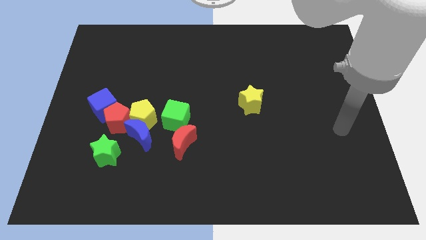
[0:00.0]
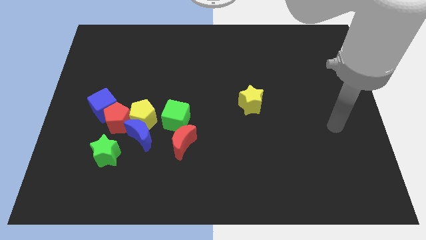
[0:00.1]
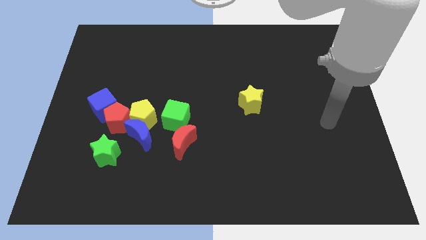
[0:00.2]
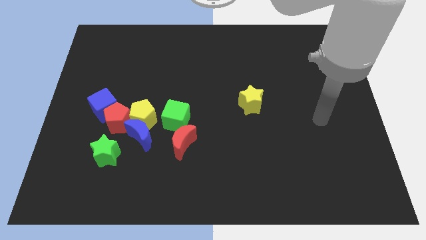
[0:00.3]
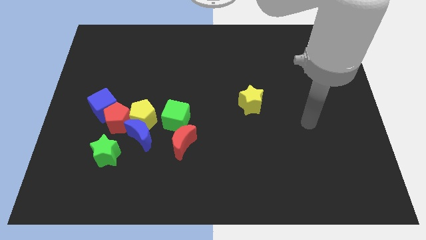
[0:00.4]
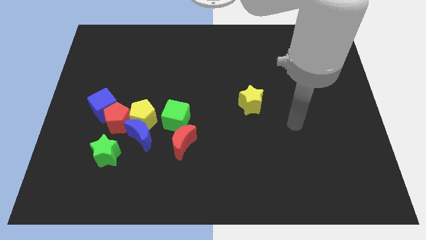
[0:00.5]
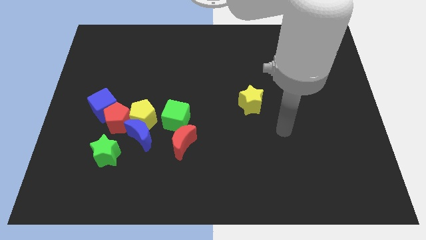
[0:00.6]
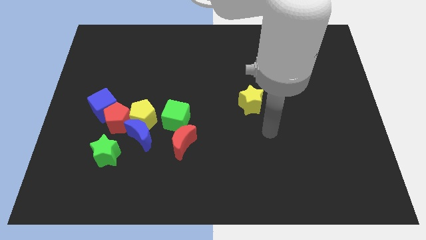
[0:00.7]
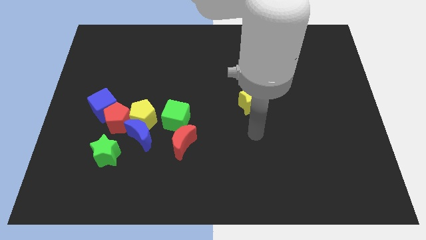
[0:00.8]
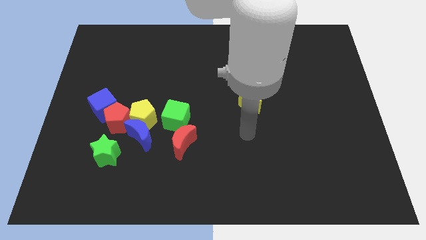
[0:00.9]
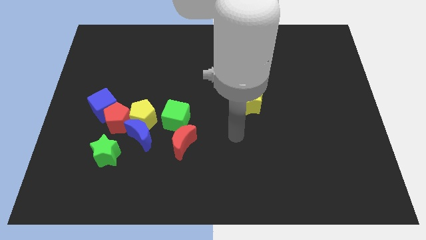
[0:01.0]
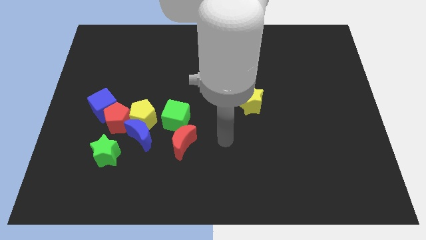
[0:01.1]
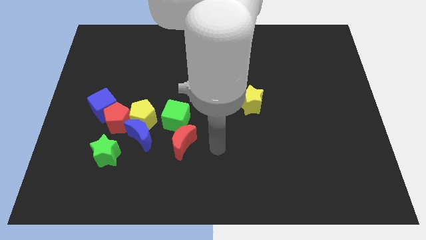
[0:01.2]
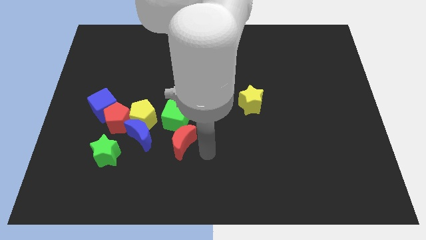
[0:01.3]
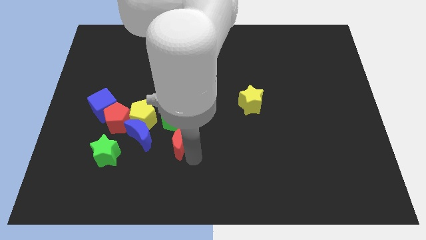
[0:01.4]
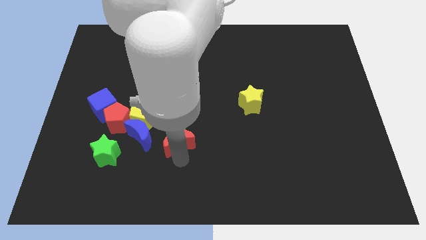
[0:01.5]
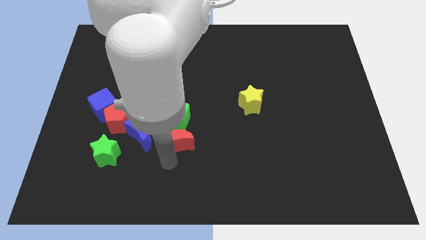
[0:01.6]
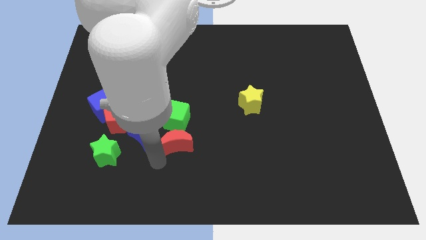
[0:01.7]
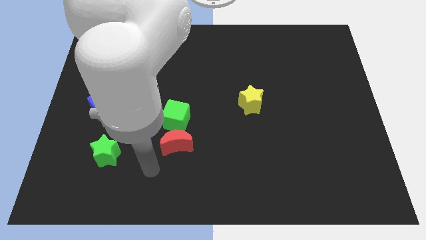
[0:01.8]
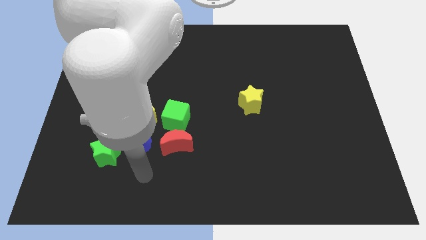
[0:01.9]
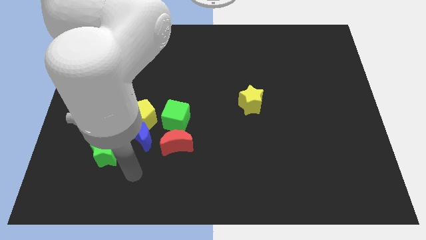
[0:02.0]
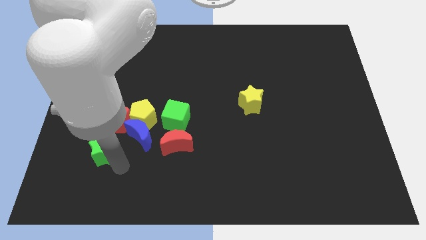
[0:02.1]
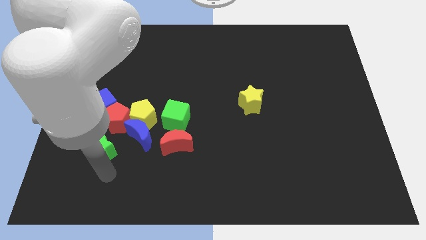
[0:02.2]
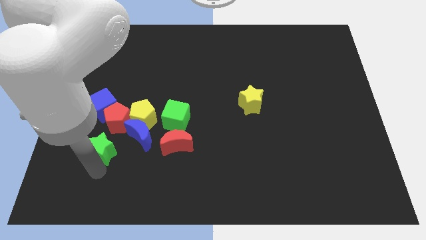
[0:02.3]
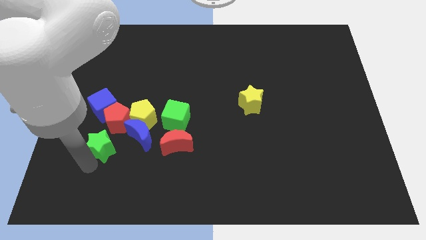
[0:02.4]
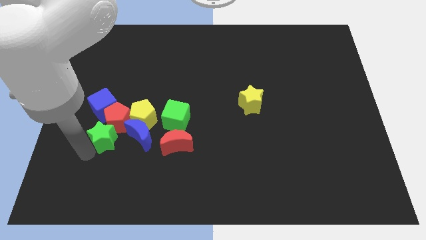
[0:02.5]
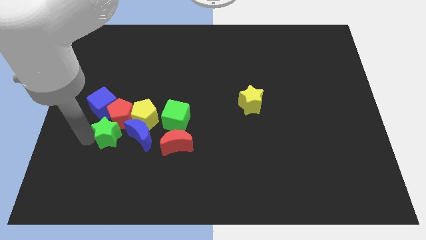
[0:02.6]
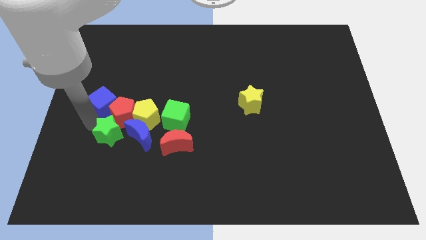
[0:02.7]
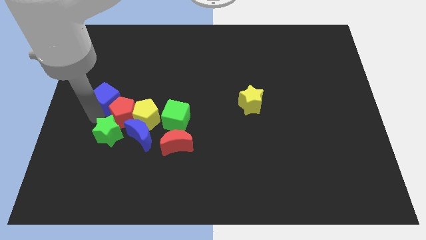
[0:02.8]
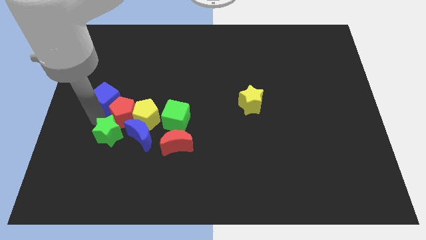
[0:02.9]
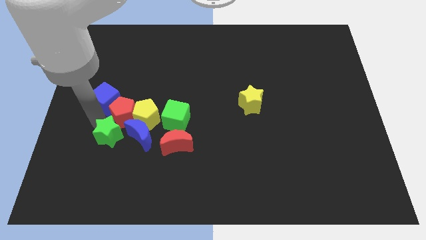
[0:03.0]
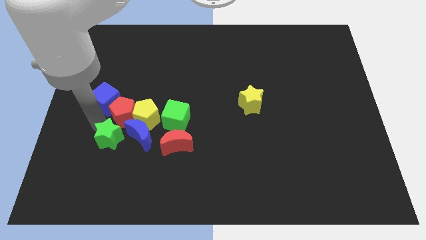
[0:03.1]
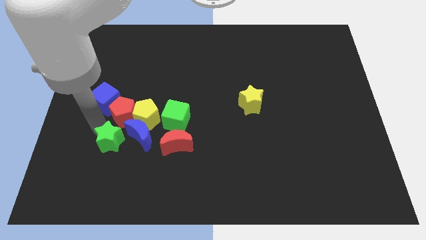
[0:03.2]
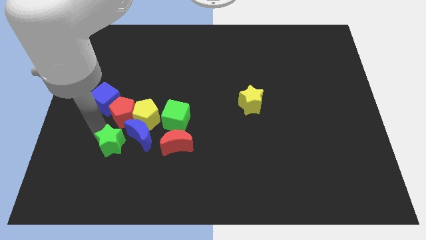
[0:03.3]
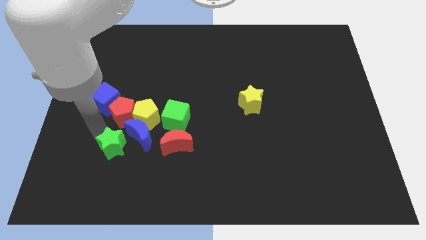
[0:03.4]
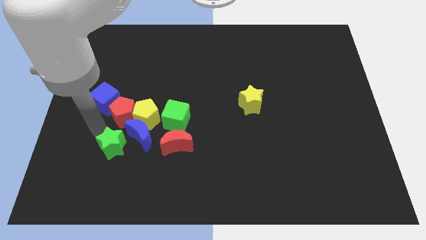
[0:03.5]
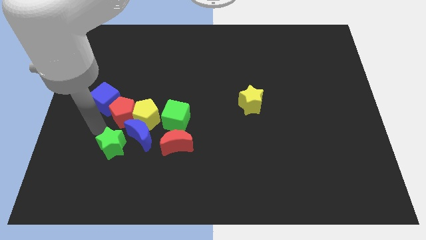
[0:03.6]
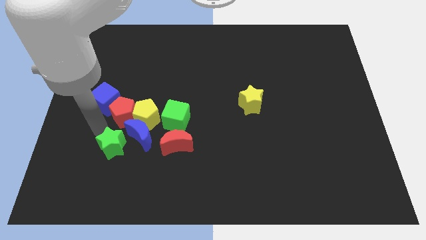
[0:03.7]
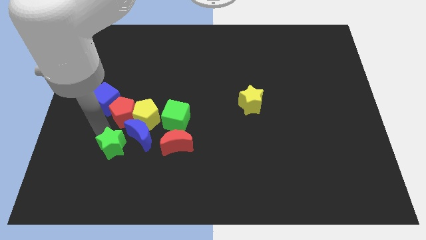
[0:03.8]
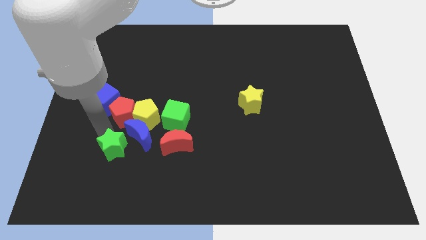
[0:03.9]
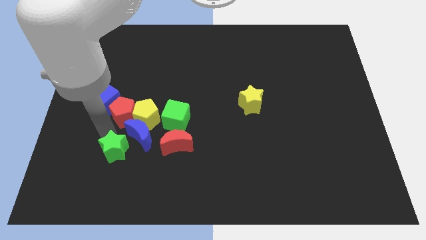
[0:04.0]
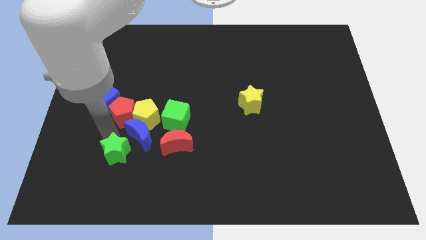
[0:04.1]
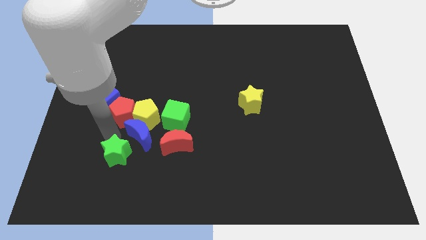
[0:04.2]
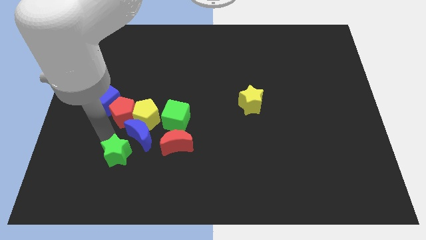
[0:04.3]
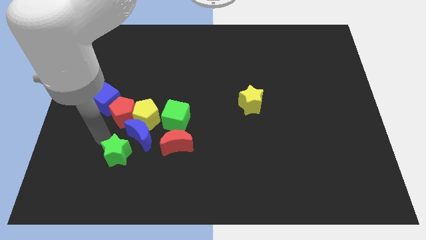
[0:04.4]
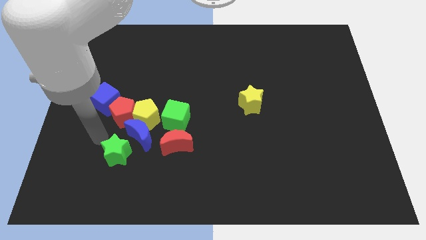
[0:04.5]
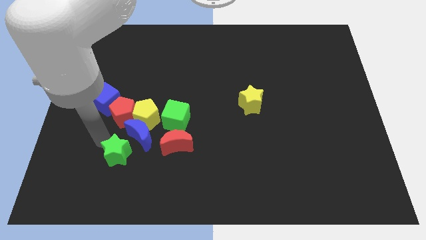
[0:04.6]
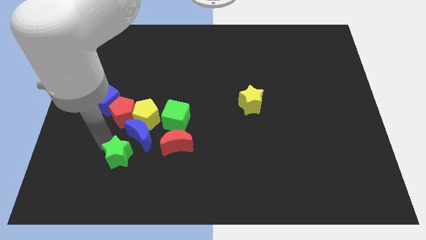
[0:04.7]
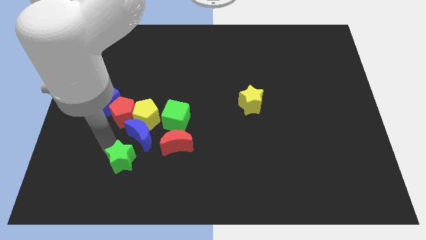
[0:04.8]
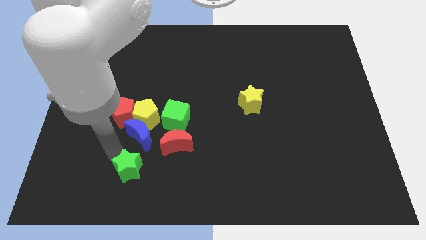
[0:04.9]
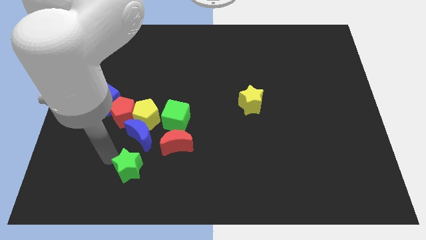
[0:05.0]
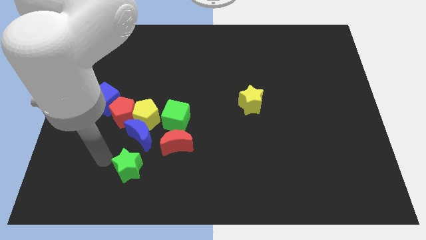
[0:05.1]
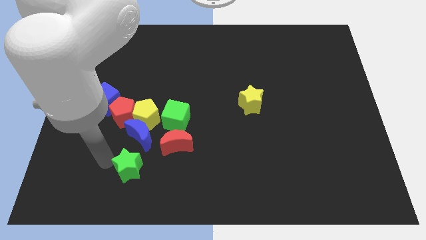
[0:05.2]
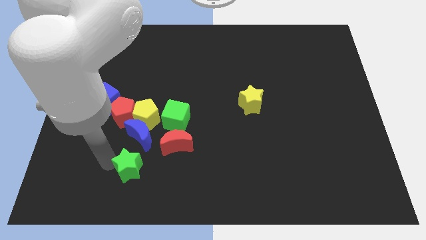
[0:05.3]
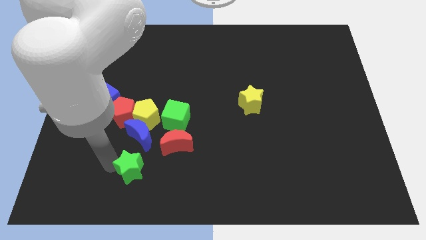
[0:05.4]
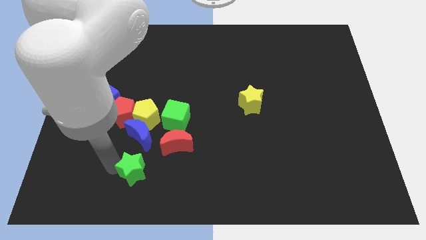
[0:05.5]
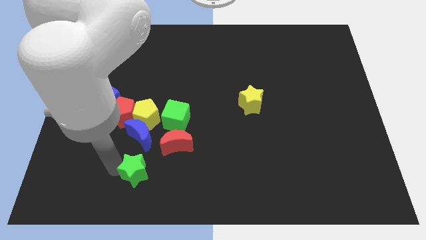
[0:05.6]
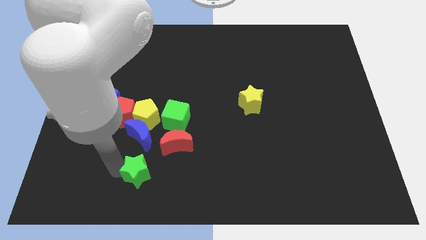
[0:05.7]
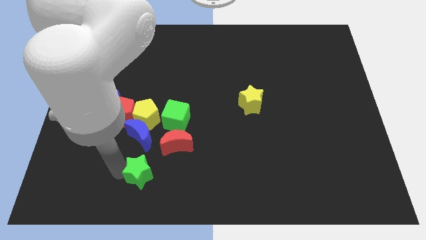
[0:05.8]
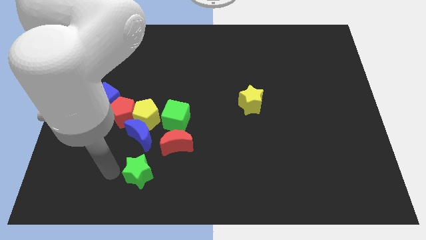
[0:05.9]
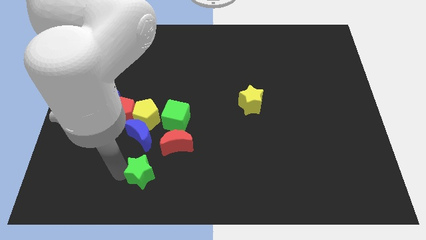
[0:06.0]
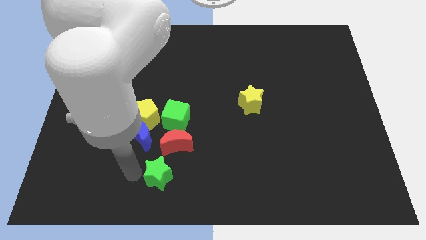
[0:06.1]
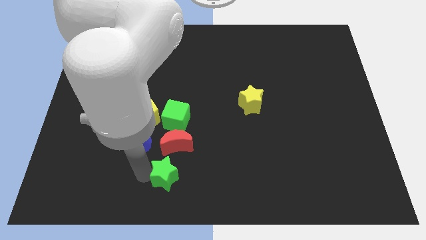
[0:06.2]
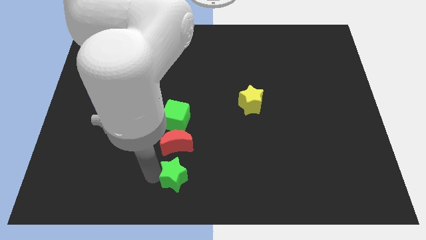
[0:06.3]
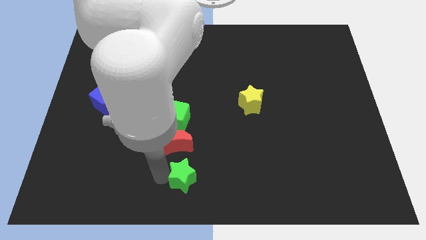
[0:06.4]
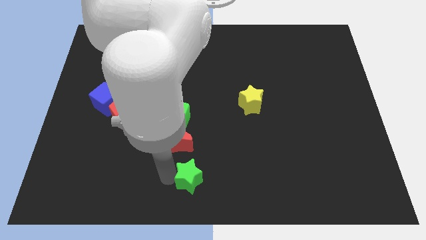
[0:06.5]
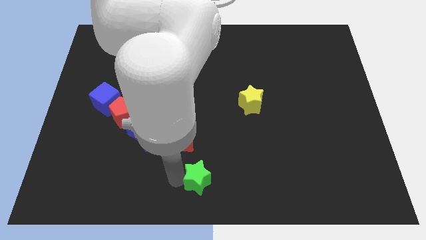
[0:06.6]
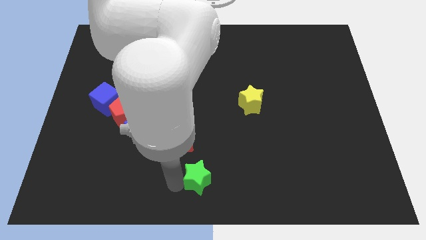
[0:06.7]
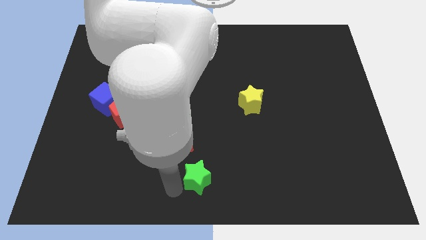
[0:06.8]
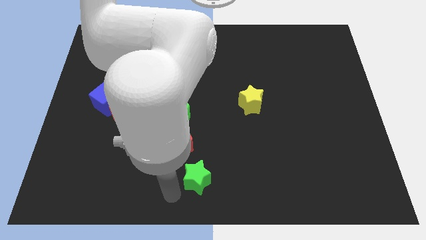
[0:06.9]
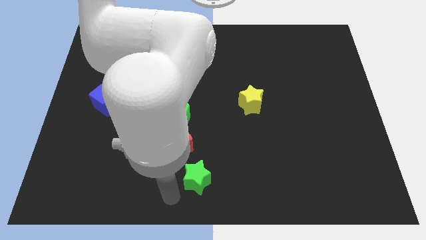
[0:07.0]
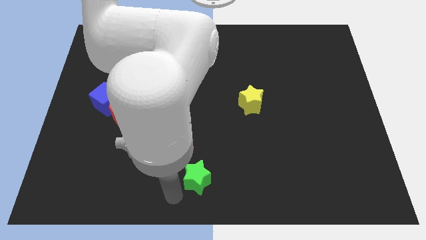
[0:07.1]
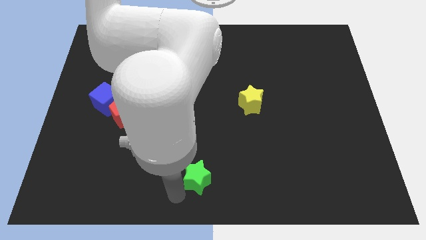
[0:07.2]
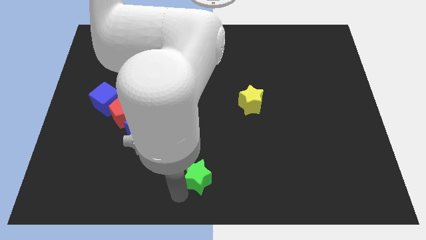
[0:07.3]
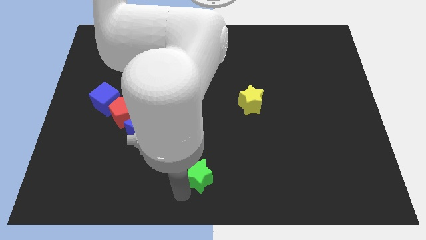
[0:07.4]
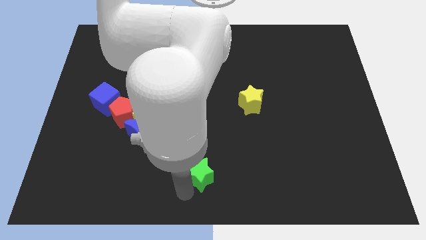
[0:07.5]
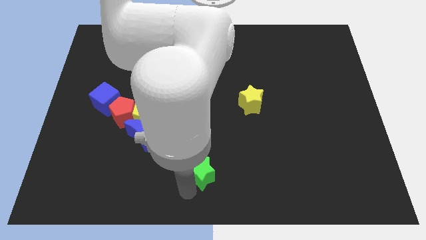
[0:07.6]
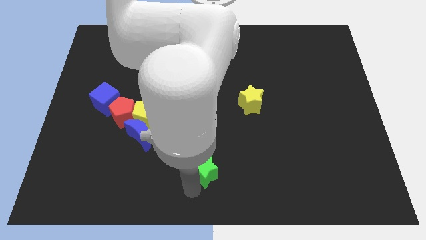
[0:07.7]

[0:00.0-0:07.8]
push the green star to the right

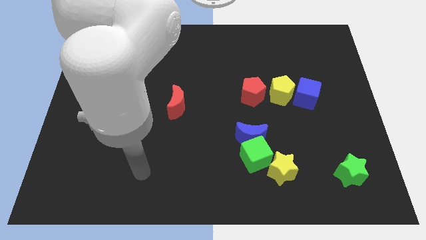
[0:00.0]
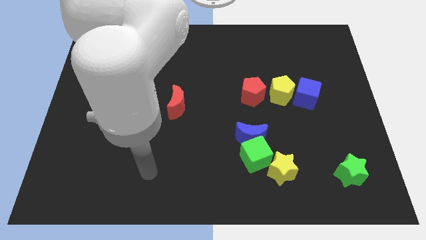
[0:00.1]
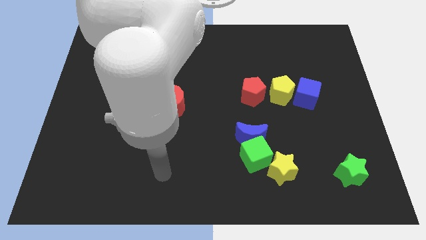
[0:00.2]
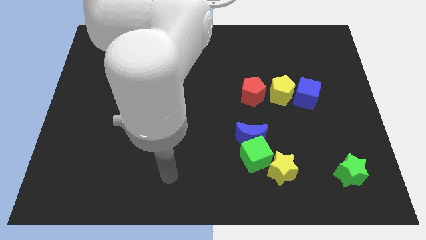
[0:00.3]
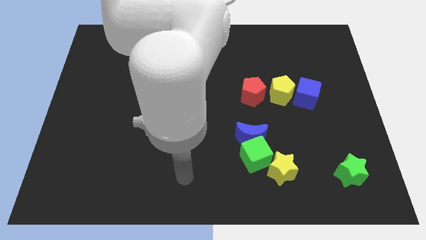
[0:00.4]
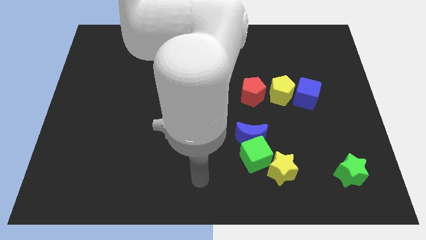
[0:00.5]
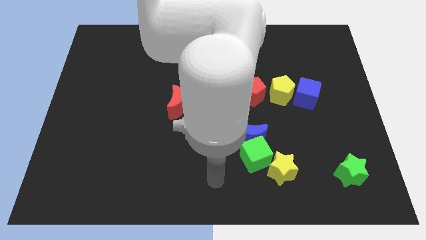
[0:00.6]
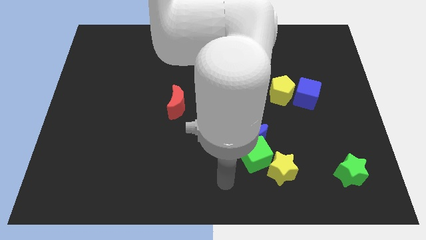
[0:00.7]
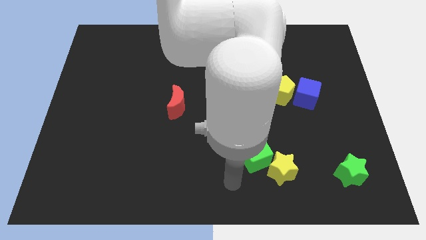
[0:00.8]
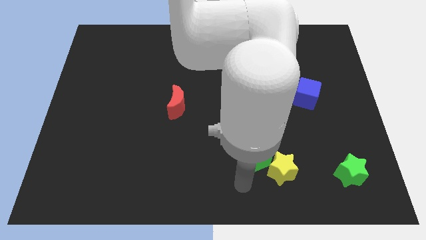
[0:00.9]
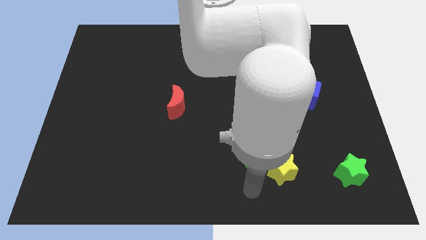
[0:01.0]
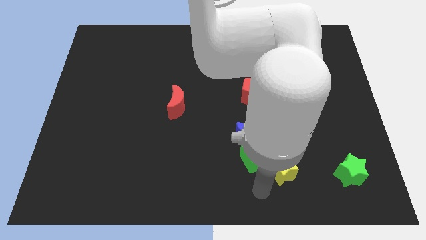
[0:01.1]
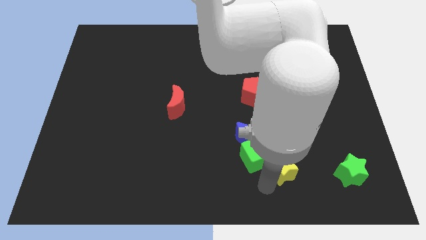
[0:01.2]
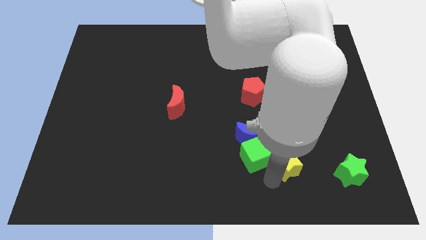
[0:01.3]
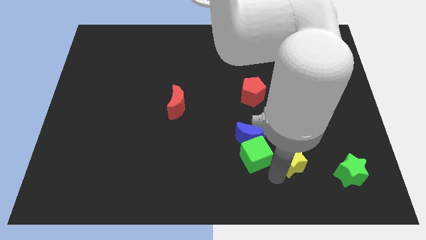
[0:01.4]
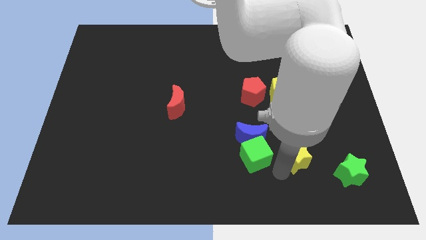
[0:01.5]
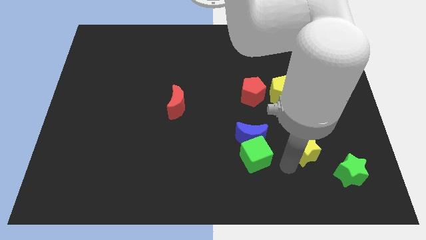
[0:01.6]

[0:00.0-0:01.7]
push the yellow star up and right a bit
